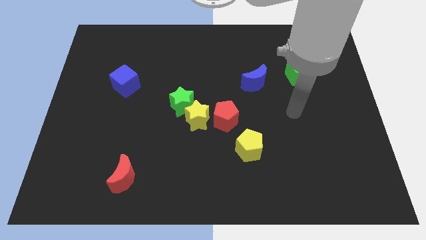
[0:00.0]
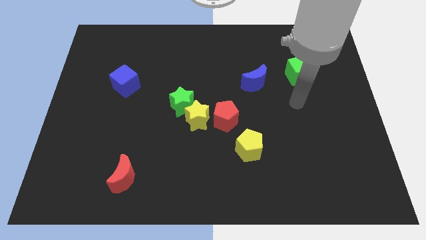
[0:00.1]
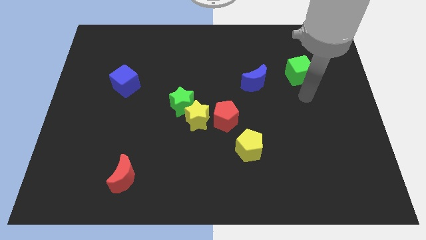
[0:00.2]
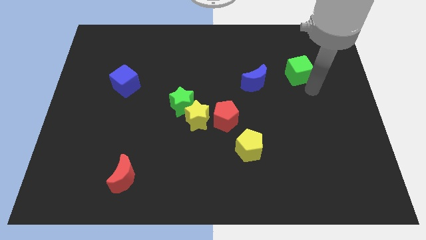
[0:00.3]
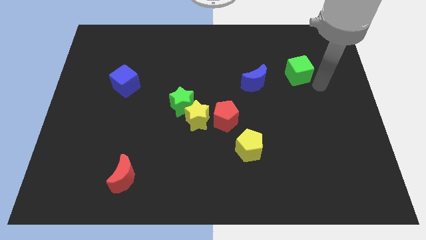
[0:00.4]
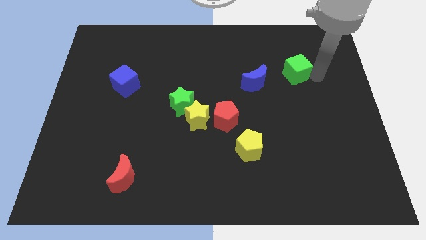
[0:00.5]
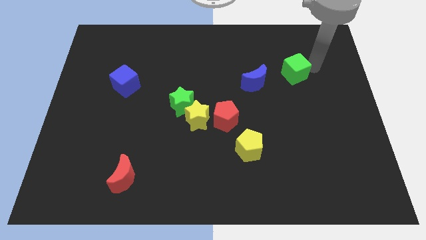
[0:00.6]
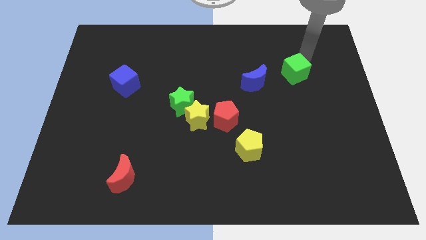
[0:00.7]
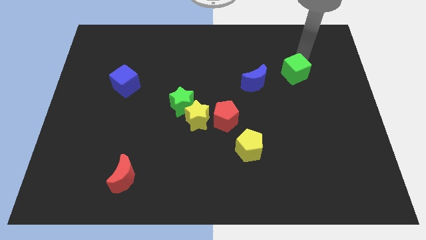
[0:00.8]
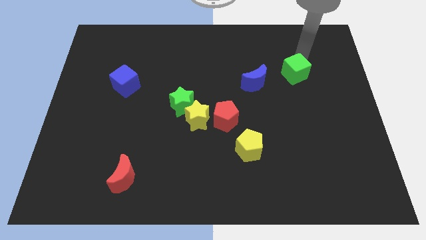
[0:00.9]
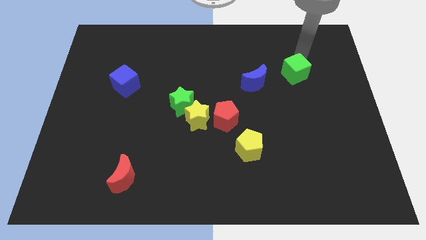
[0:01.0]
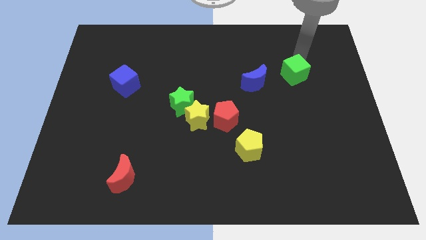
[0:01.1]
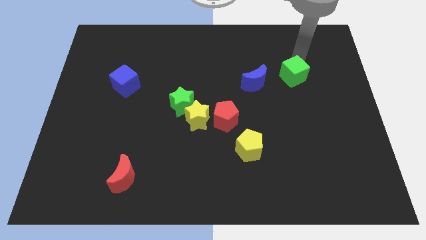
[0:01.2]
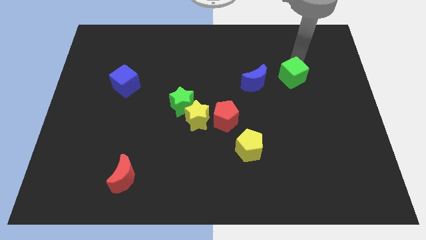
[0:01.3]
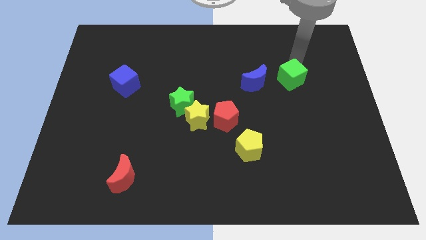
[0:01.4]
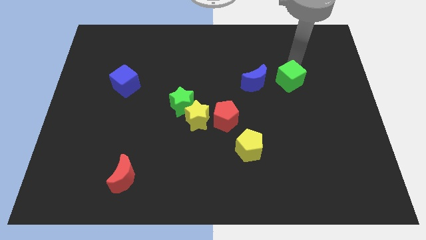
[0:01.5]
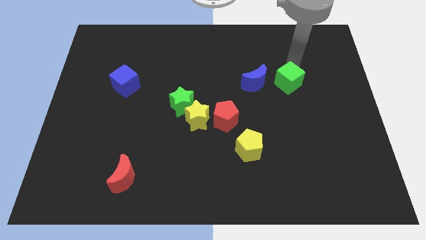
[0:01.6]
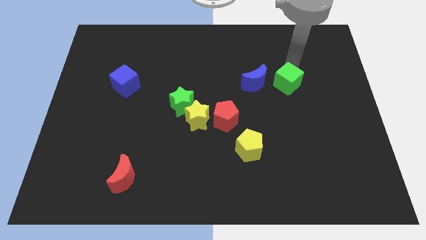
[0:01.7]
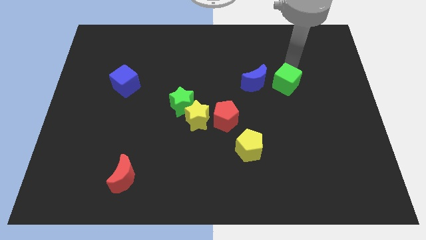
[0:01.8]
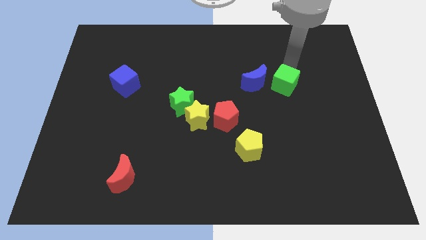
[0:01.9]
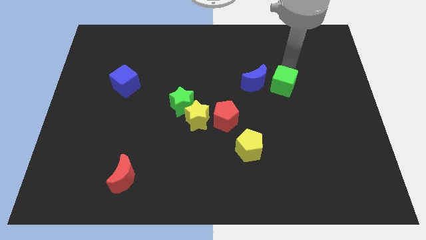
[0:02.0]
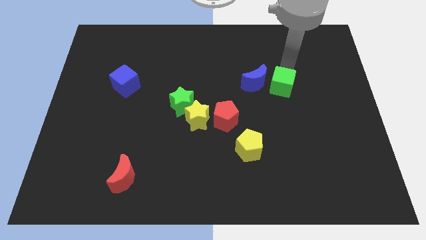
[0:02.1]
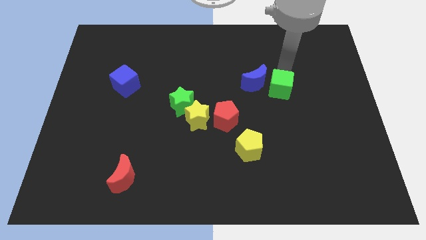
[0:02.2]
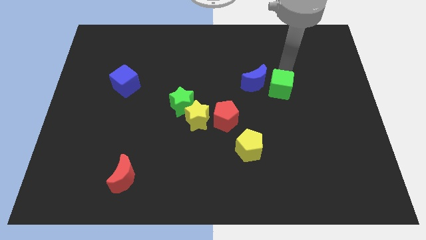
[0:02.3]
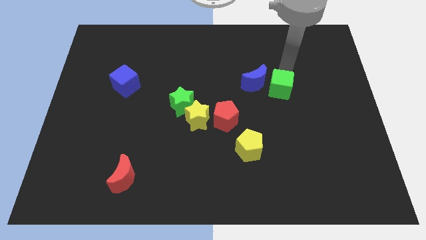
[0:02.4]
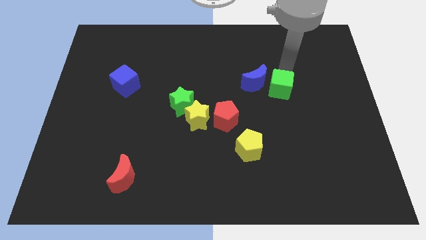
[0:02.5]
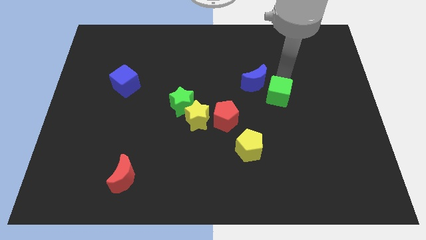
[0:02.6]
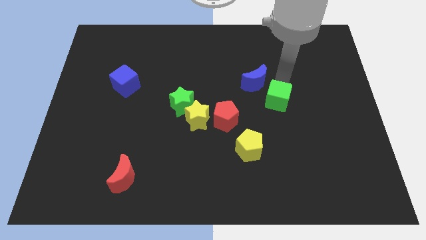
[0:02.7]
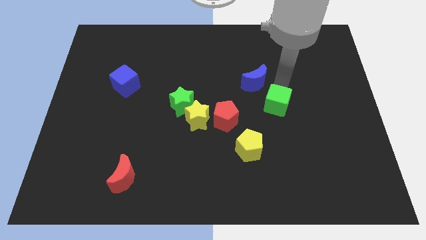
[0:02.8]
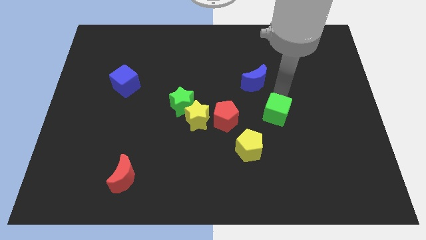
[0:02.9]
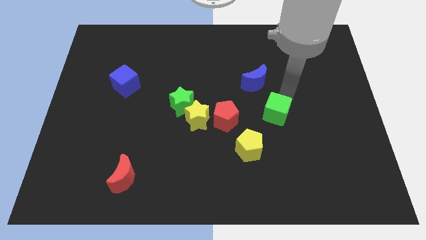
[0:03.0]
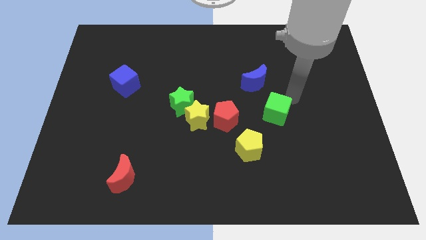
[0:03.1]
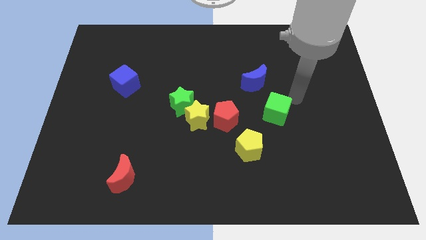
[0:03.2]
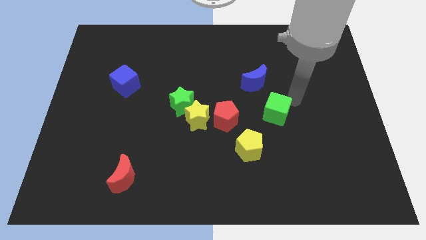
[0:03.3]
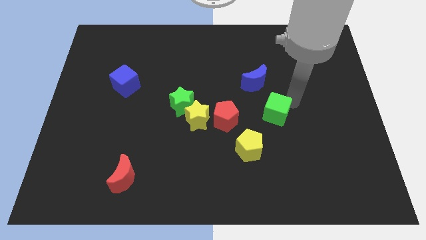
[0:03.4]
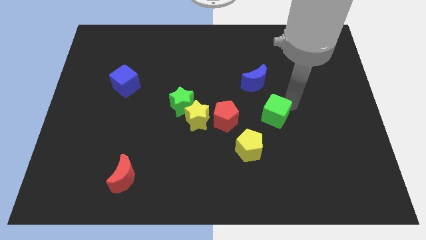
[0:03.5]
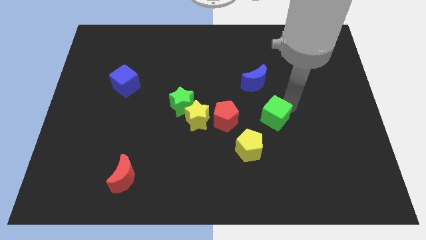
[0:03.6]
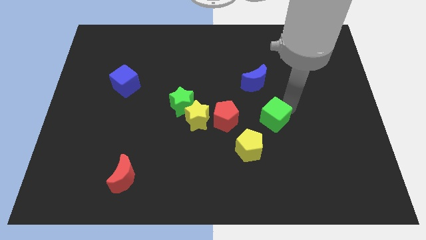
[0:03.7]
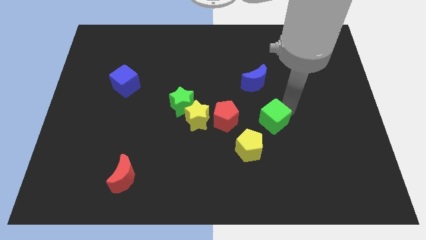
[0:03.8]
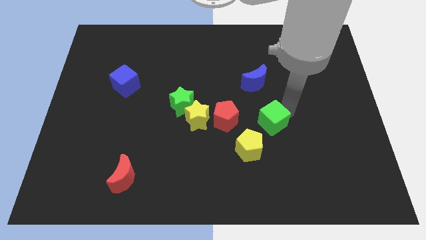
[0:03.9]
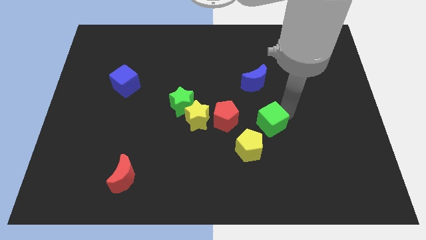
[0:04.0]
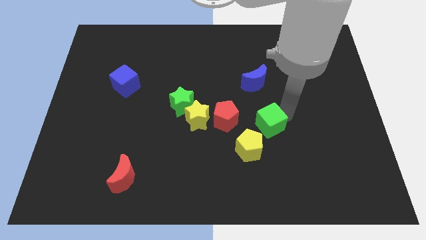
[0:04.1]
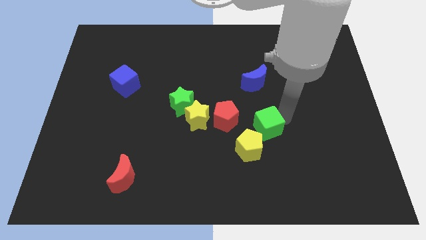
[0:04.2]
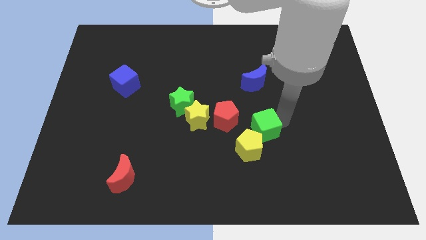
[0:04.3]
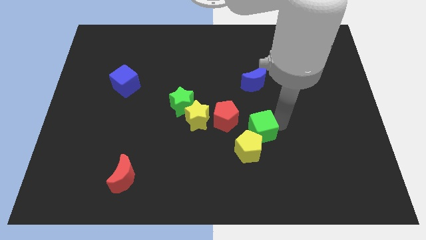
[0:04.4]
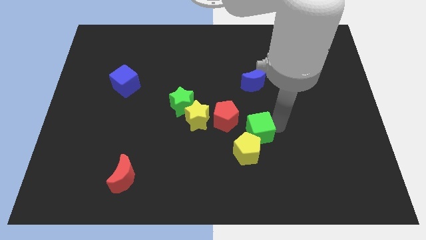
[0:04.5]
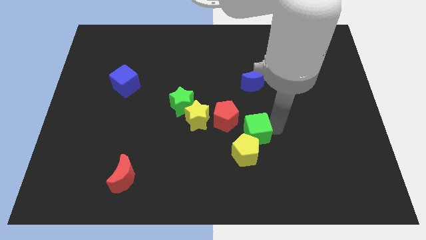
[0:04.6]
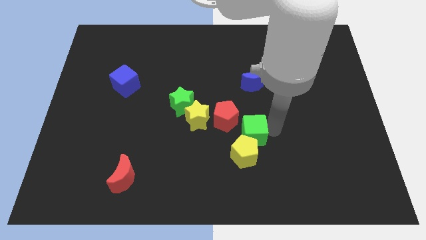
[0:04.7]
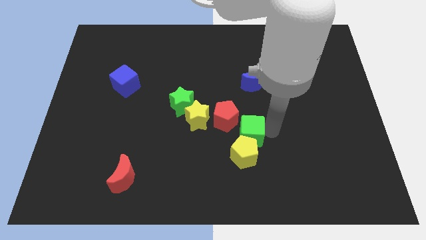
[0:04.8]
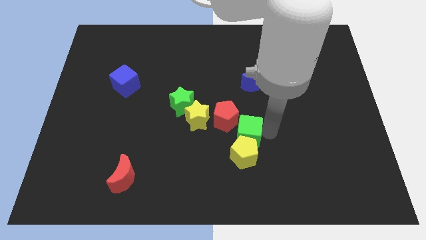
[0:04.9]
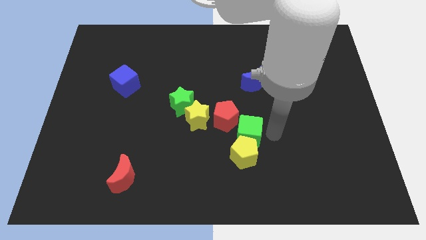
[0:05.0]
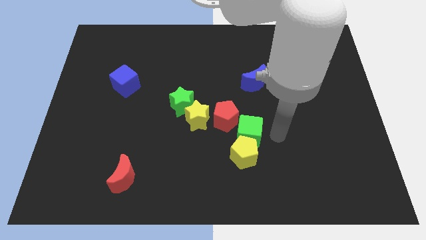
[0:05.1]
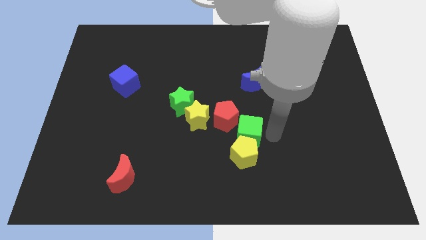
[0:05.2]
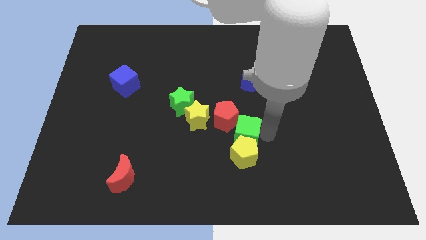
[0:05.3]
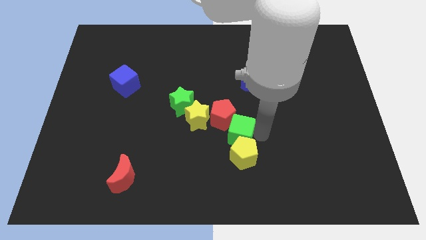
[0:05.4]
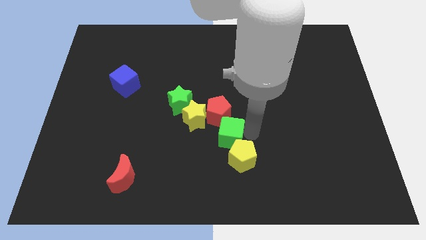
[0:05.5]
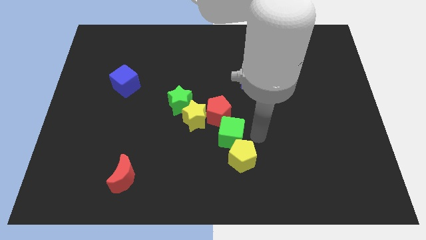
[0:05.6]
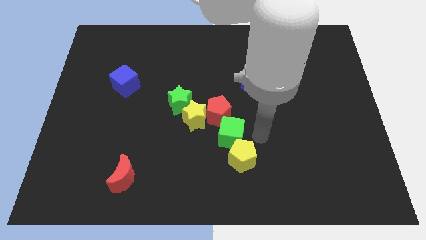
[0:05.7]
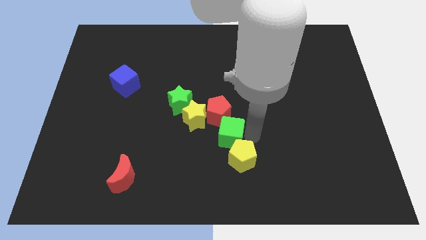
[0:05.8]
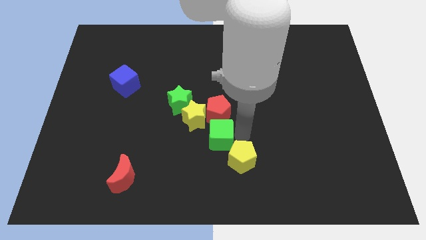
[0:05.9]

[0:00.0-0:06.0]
move the green cube diagonally down and to the left of the red pentagon

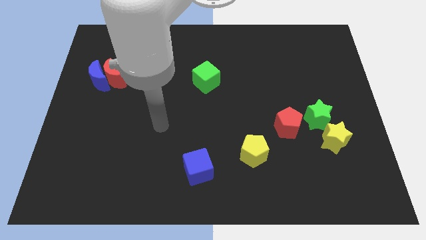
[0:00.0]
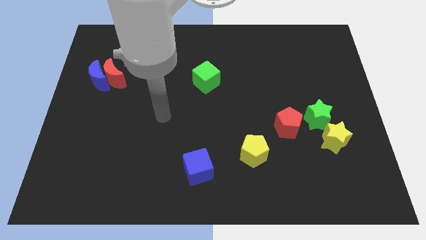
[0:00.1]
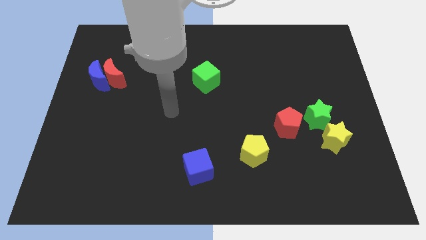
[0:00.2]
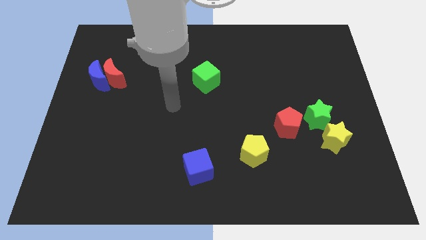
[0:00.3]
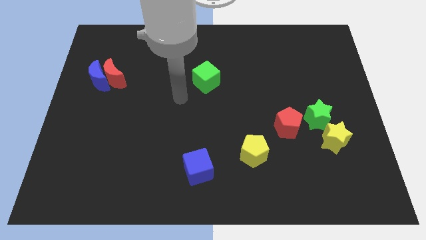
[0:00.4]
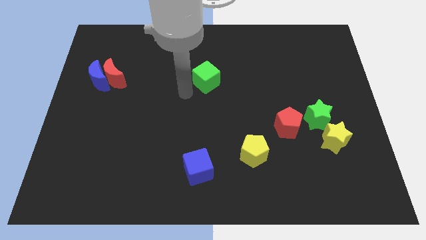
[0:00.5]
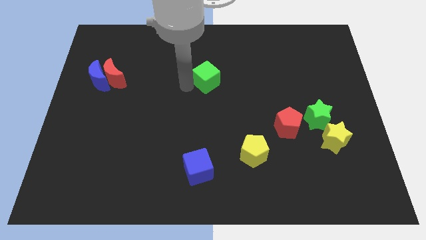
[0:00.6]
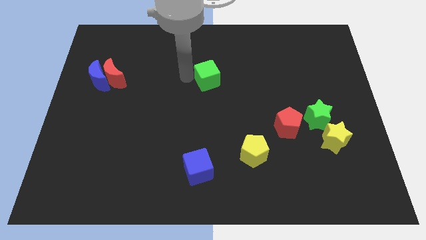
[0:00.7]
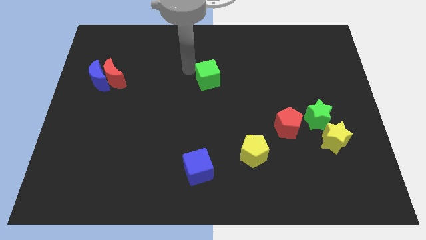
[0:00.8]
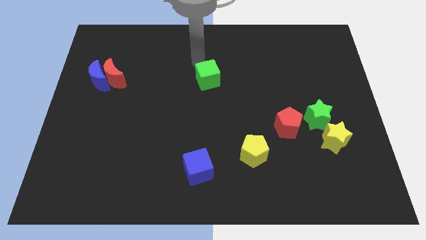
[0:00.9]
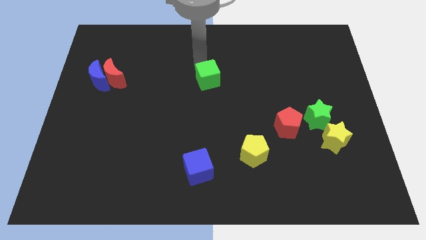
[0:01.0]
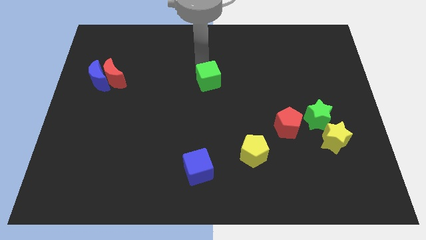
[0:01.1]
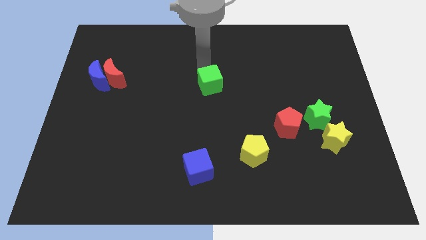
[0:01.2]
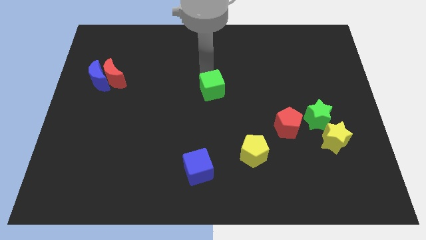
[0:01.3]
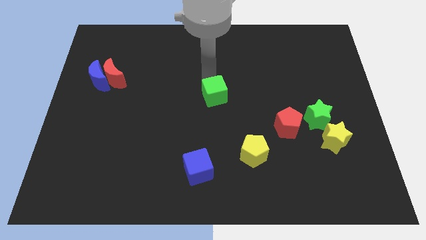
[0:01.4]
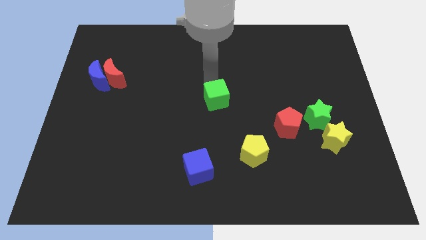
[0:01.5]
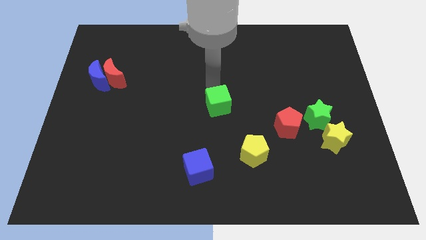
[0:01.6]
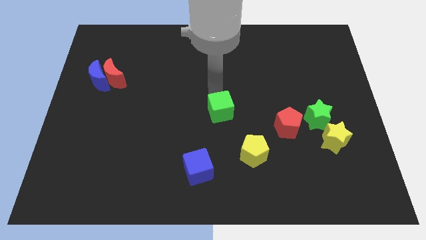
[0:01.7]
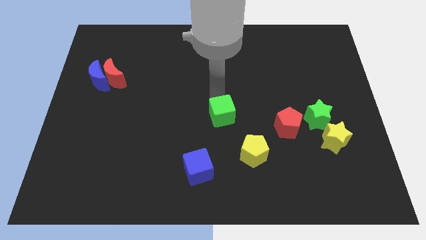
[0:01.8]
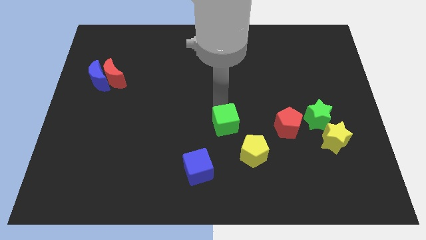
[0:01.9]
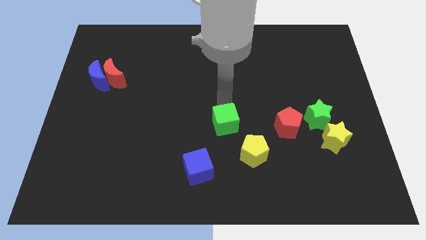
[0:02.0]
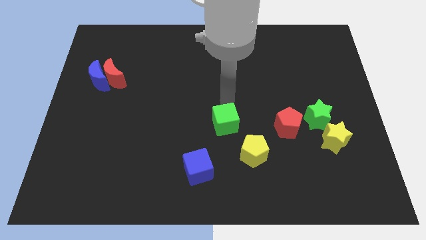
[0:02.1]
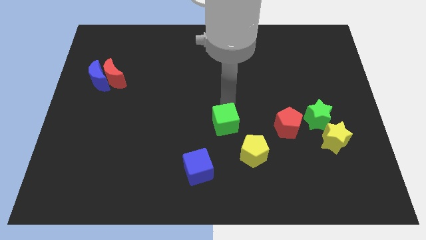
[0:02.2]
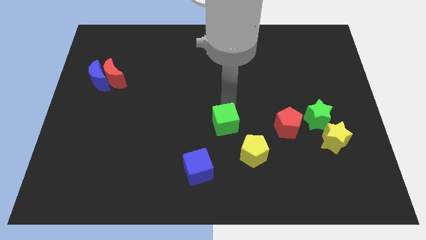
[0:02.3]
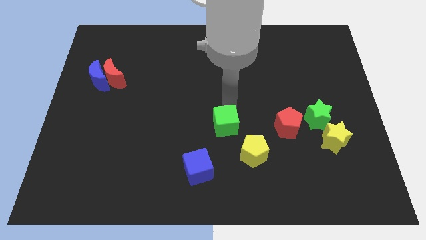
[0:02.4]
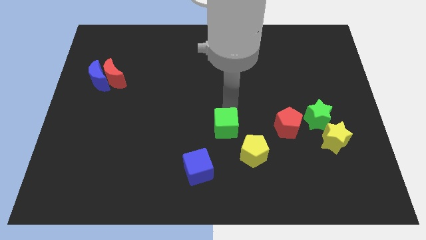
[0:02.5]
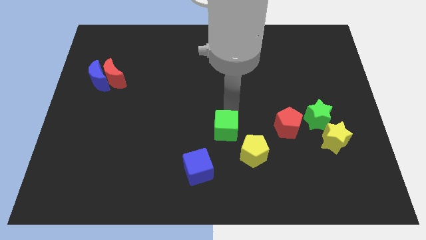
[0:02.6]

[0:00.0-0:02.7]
push the green cube diagonally up and to the right of the blue cube
